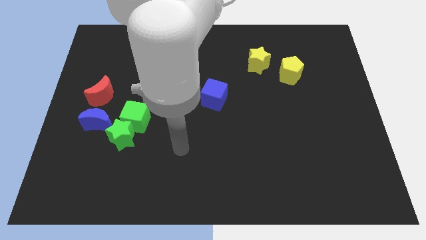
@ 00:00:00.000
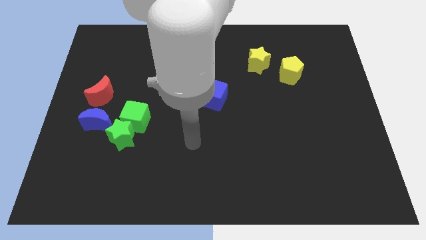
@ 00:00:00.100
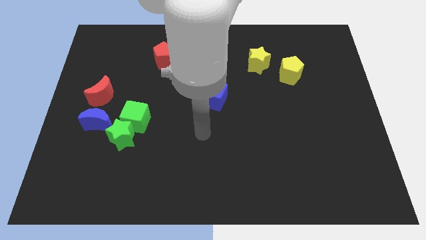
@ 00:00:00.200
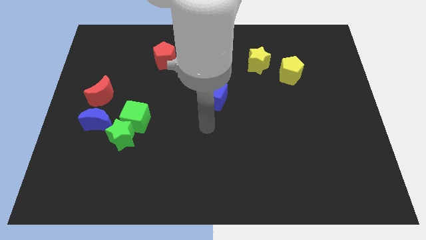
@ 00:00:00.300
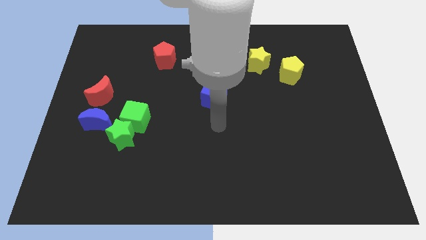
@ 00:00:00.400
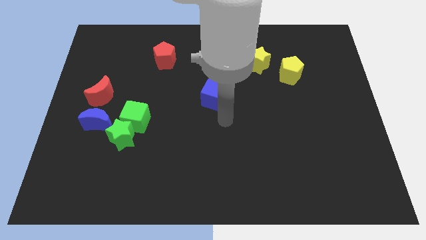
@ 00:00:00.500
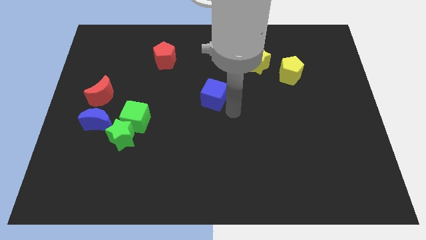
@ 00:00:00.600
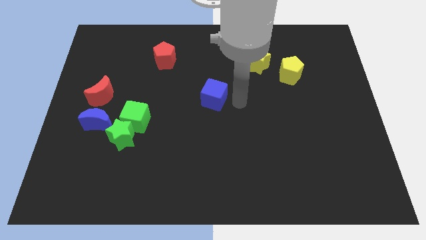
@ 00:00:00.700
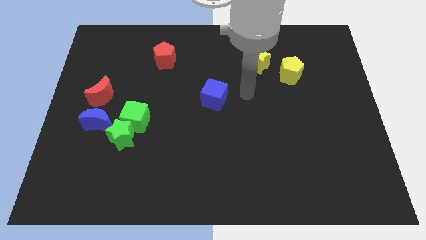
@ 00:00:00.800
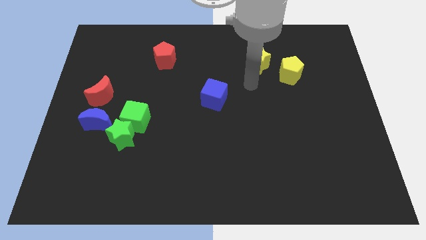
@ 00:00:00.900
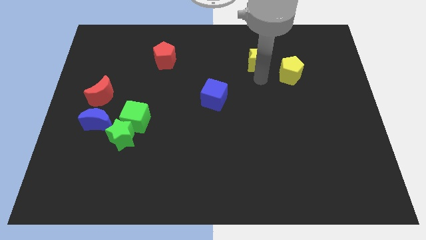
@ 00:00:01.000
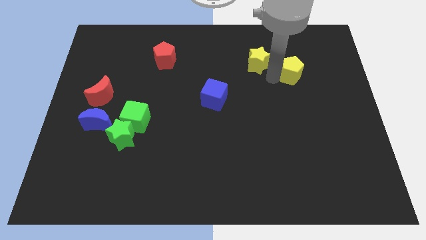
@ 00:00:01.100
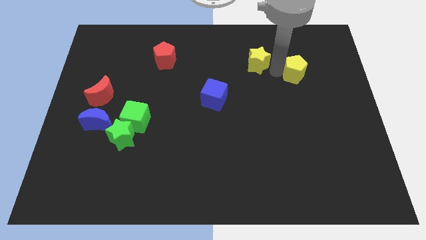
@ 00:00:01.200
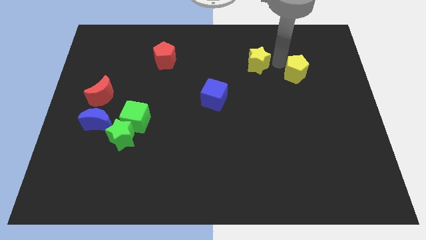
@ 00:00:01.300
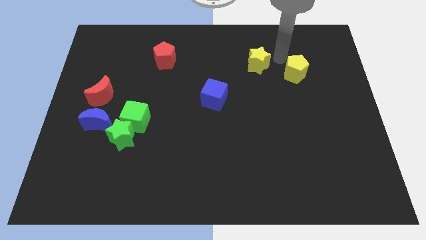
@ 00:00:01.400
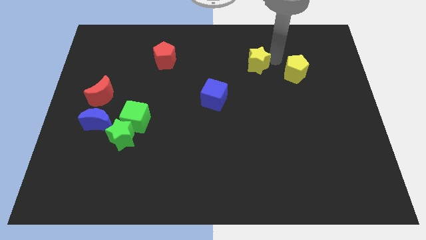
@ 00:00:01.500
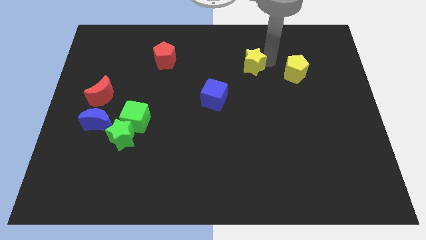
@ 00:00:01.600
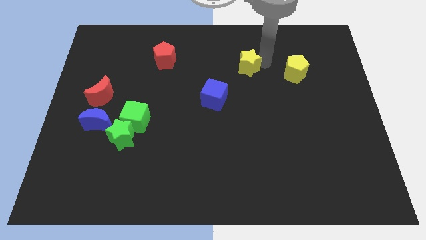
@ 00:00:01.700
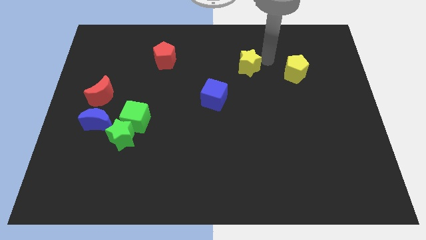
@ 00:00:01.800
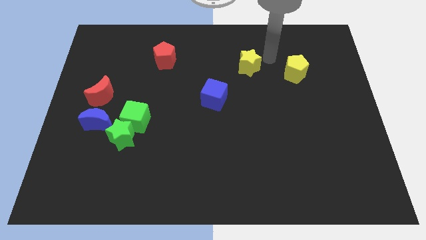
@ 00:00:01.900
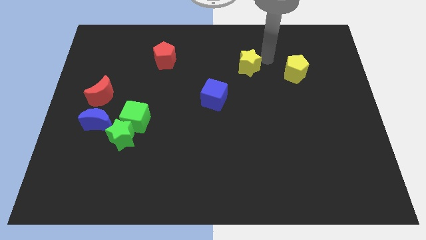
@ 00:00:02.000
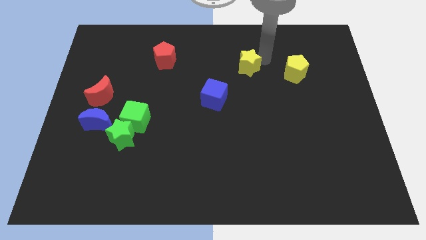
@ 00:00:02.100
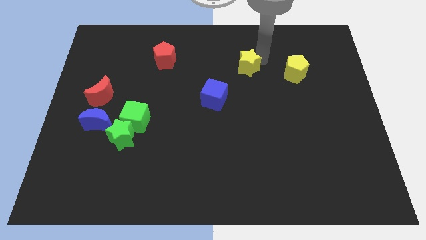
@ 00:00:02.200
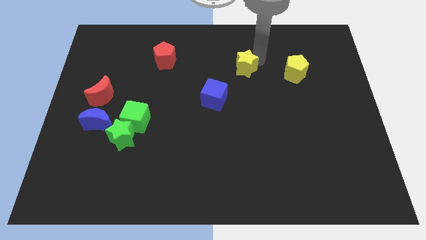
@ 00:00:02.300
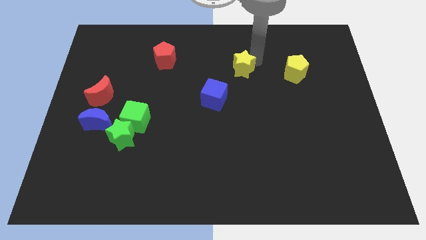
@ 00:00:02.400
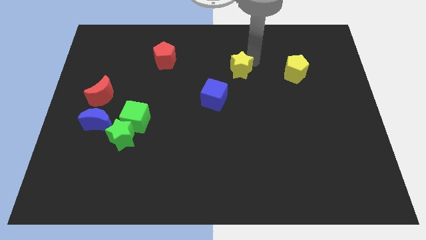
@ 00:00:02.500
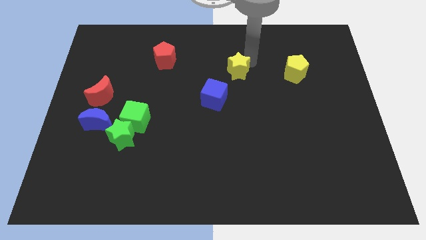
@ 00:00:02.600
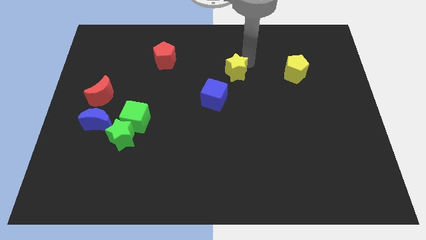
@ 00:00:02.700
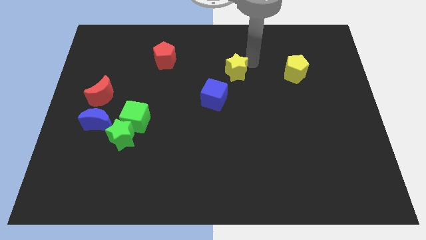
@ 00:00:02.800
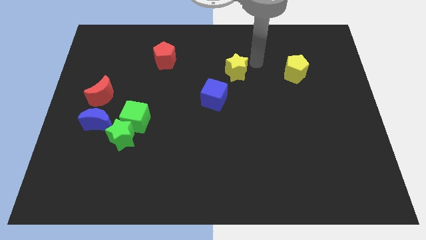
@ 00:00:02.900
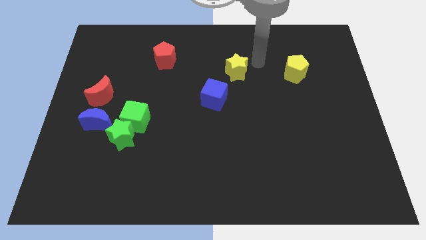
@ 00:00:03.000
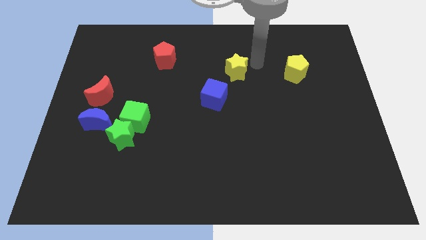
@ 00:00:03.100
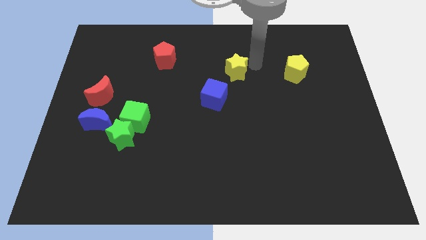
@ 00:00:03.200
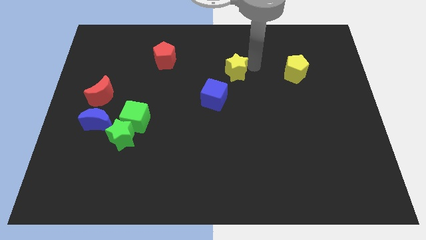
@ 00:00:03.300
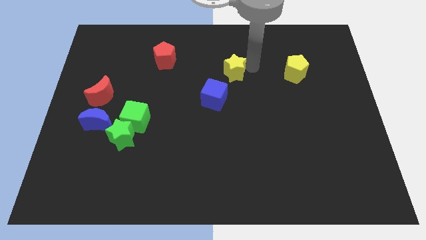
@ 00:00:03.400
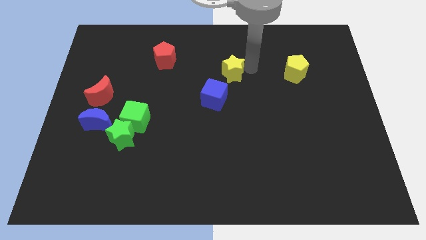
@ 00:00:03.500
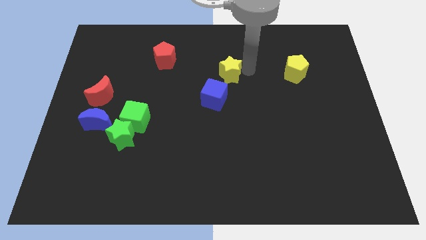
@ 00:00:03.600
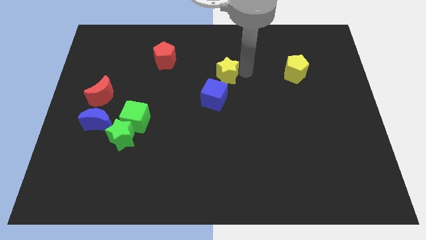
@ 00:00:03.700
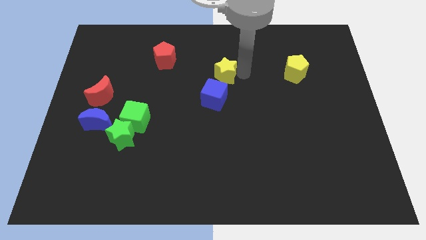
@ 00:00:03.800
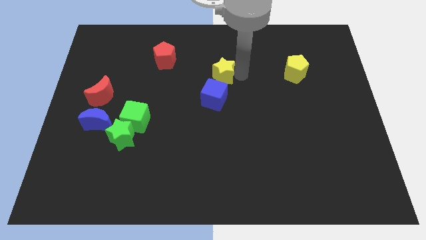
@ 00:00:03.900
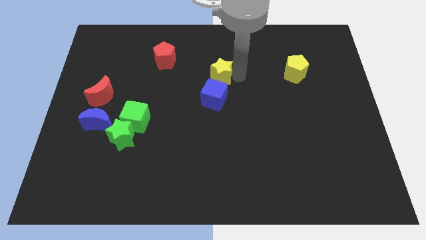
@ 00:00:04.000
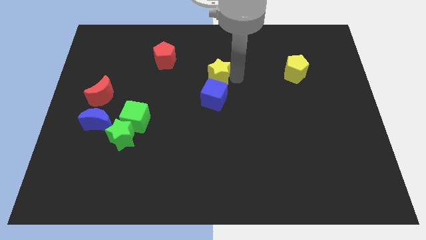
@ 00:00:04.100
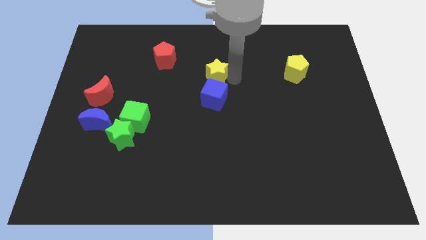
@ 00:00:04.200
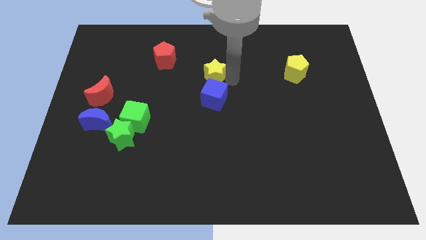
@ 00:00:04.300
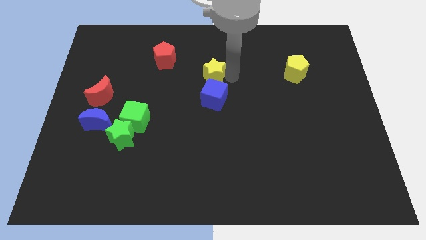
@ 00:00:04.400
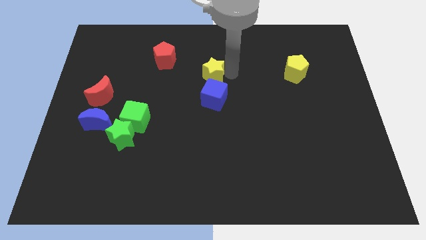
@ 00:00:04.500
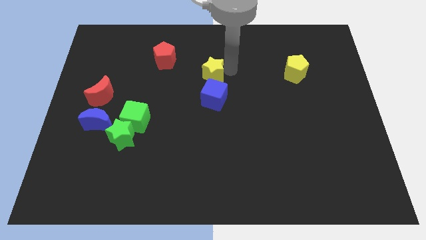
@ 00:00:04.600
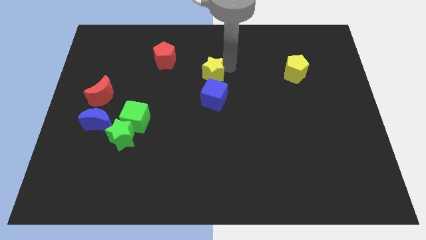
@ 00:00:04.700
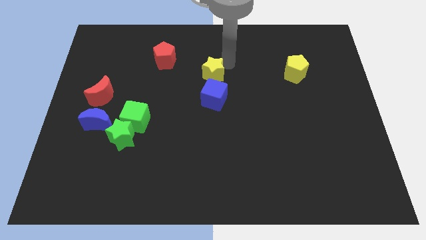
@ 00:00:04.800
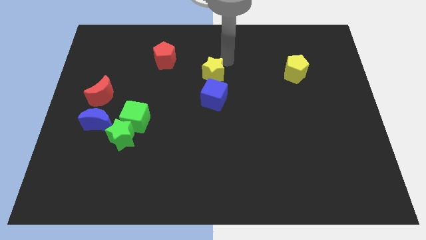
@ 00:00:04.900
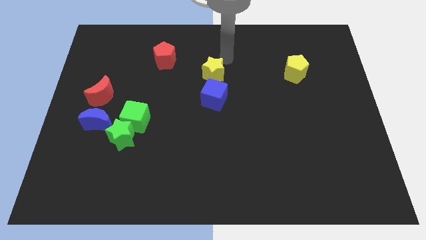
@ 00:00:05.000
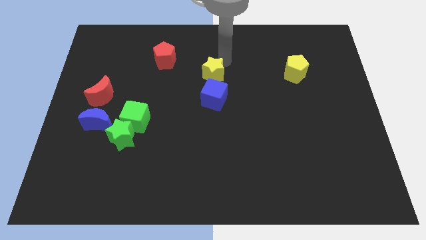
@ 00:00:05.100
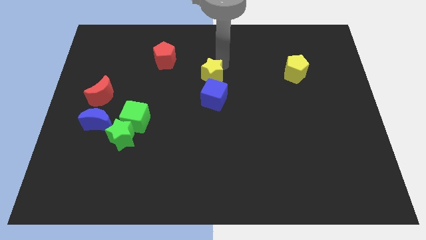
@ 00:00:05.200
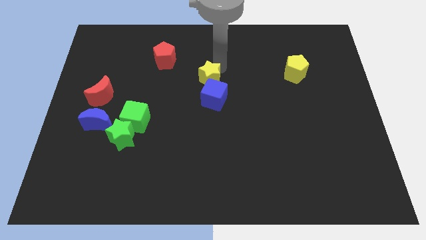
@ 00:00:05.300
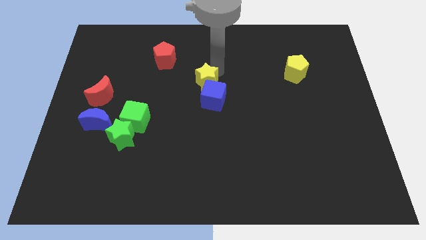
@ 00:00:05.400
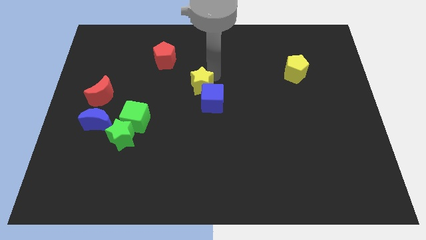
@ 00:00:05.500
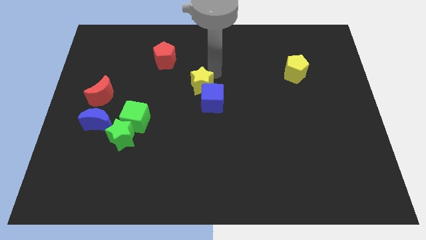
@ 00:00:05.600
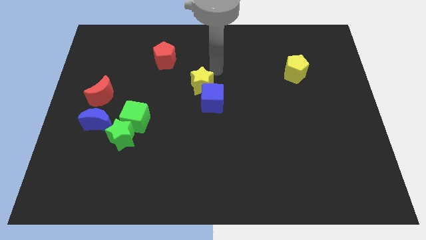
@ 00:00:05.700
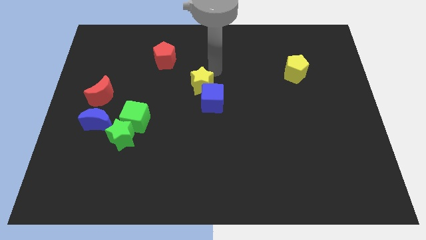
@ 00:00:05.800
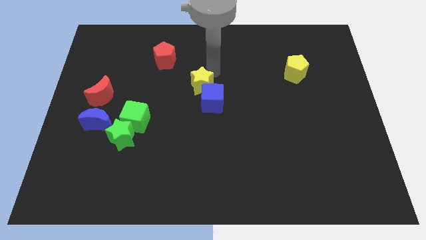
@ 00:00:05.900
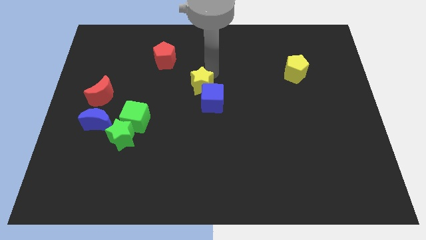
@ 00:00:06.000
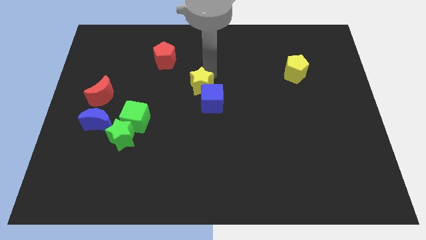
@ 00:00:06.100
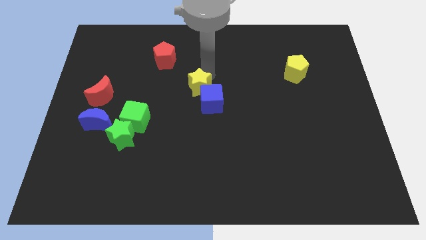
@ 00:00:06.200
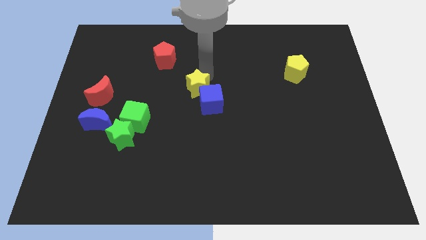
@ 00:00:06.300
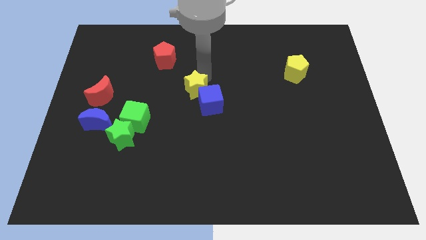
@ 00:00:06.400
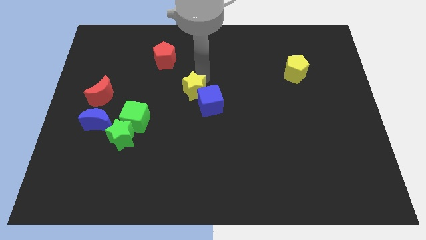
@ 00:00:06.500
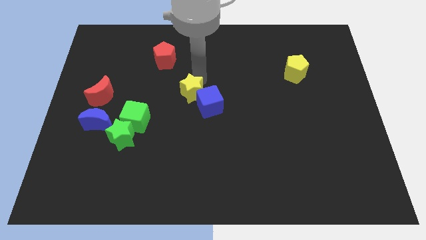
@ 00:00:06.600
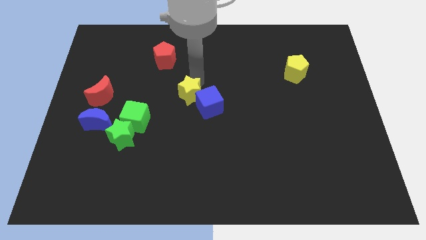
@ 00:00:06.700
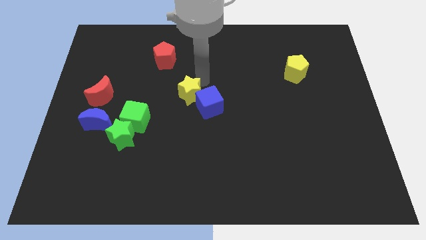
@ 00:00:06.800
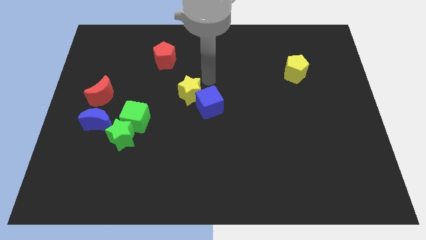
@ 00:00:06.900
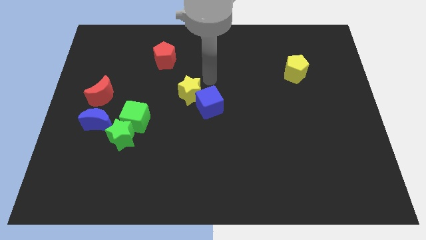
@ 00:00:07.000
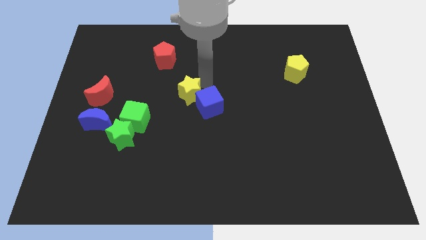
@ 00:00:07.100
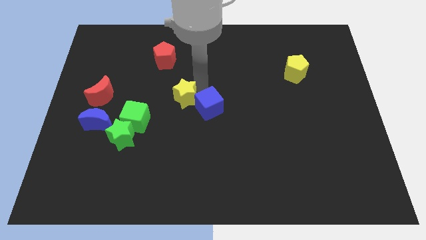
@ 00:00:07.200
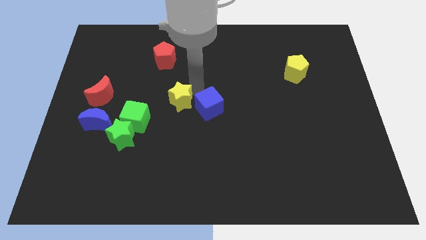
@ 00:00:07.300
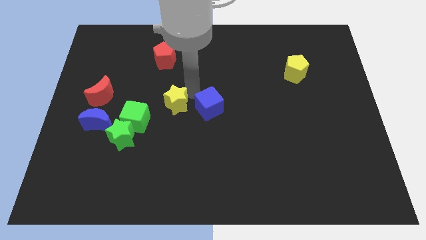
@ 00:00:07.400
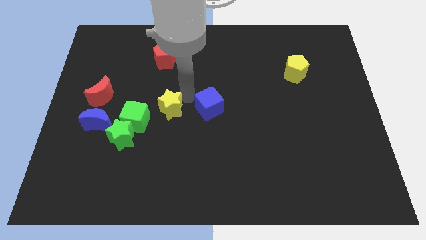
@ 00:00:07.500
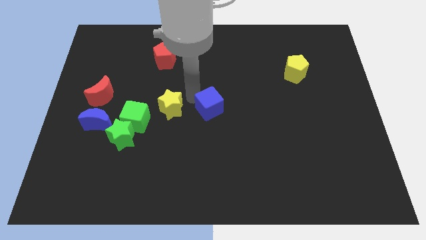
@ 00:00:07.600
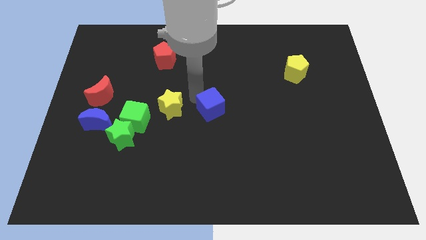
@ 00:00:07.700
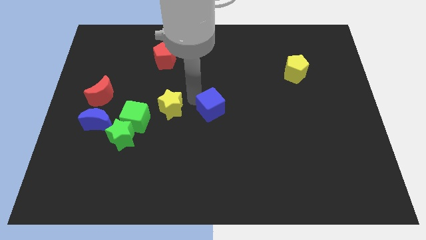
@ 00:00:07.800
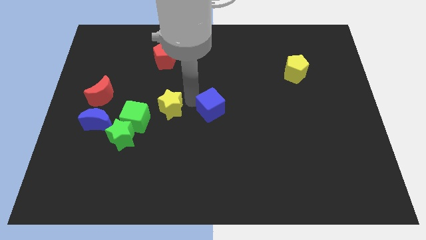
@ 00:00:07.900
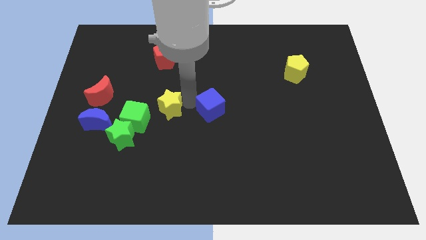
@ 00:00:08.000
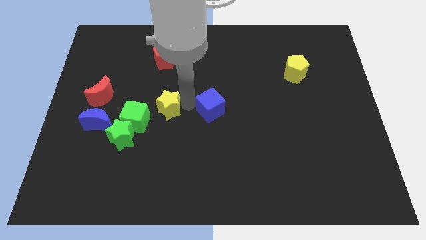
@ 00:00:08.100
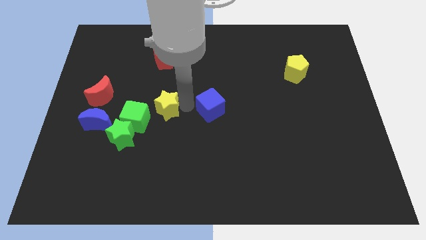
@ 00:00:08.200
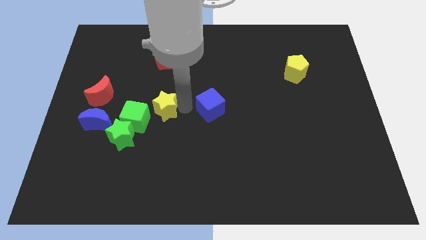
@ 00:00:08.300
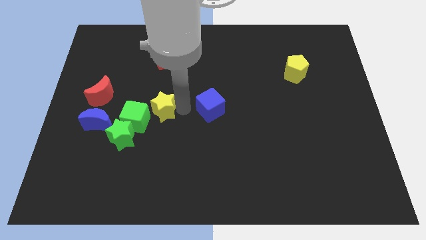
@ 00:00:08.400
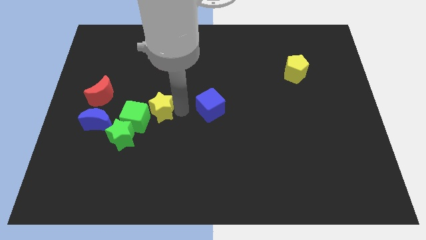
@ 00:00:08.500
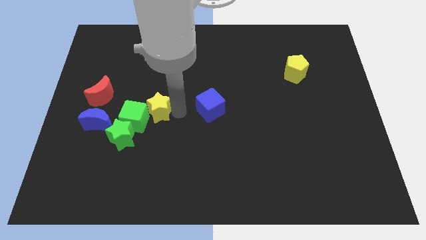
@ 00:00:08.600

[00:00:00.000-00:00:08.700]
push the yellow star close to the green cube
